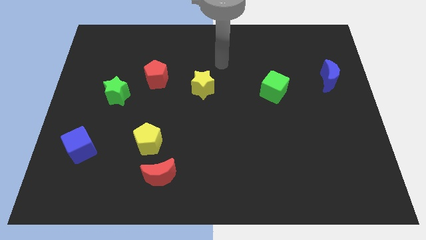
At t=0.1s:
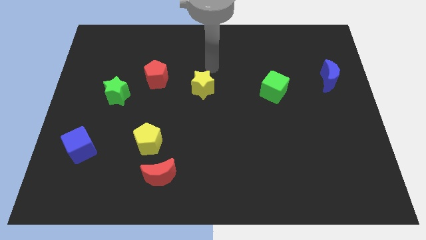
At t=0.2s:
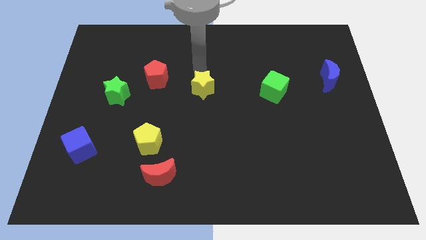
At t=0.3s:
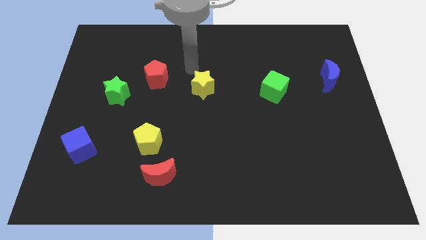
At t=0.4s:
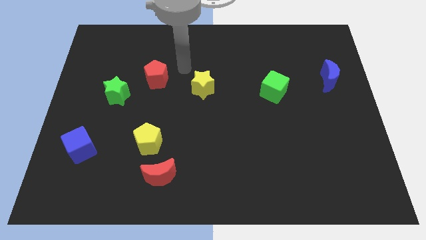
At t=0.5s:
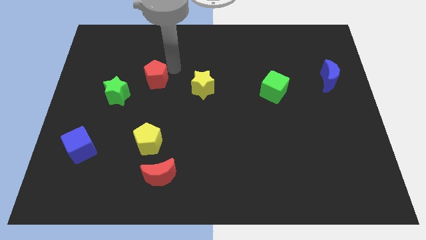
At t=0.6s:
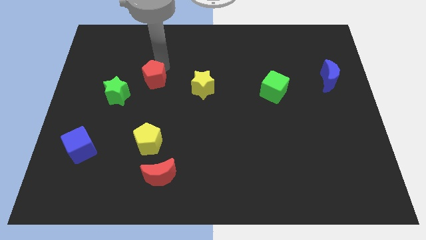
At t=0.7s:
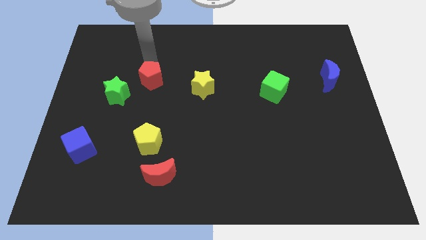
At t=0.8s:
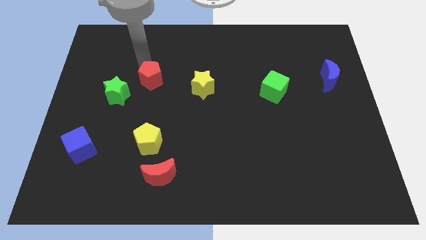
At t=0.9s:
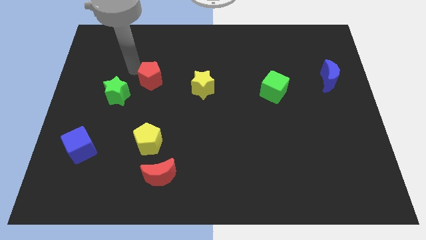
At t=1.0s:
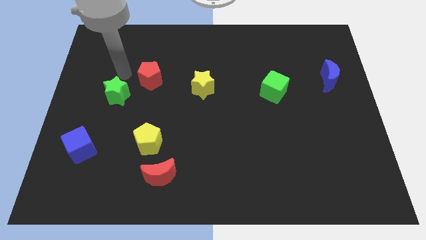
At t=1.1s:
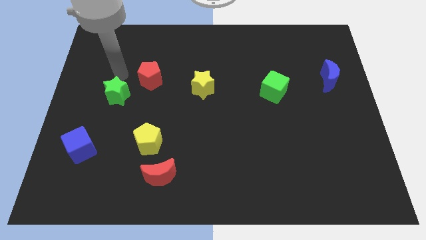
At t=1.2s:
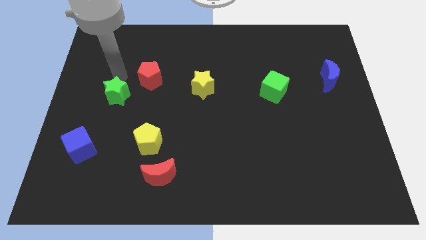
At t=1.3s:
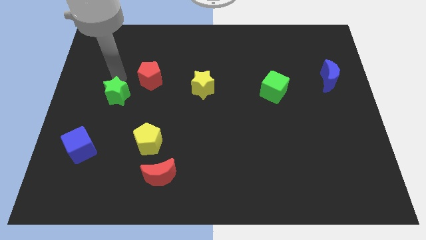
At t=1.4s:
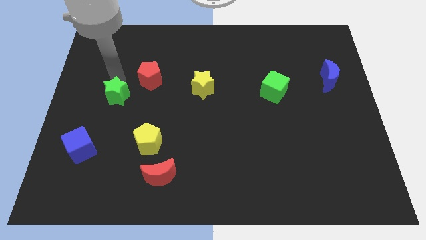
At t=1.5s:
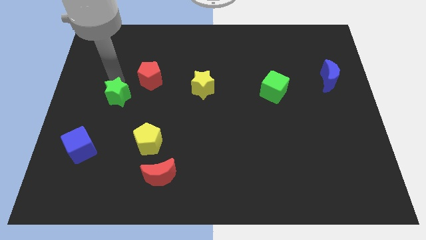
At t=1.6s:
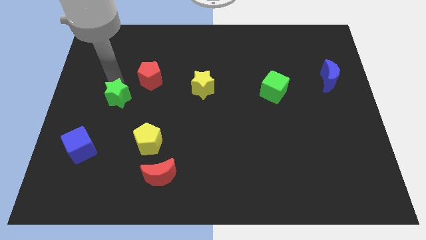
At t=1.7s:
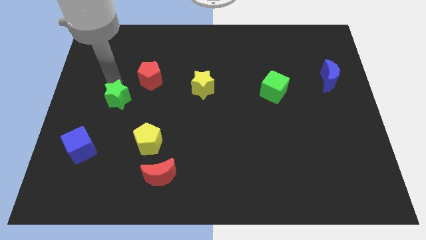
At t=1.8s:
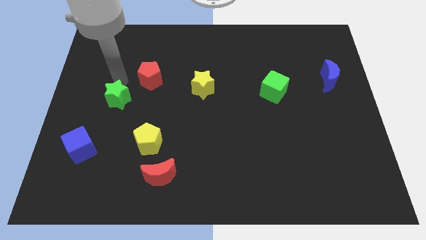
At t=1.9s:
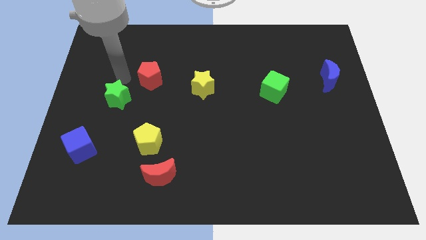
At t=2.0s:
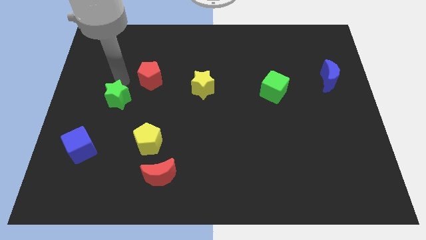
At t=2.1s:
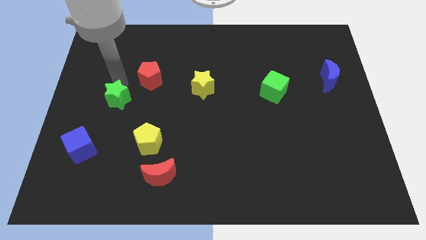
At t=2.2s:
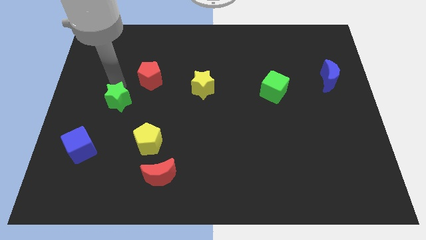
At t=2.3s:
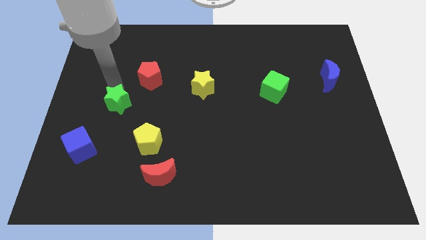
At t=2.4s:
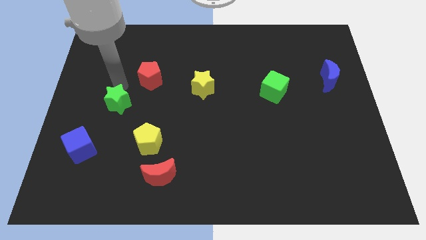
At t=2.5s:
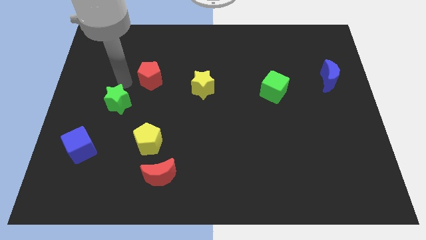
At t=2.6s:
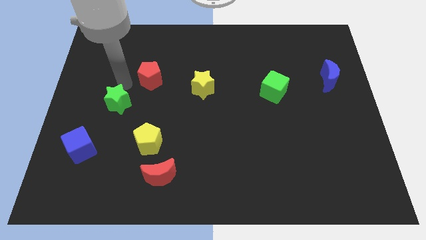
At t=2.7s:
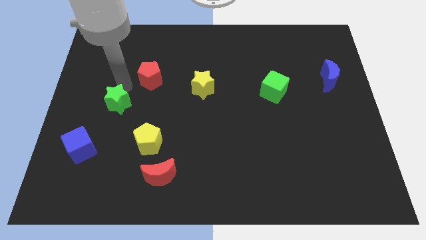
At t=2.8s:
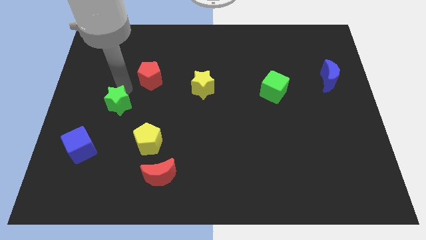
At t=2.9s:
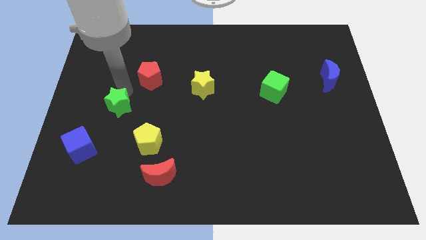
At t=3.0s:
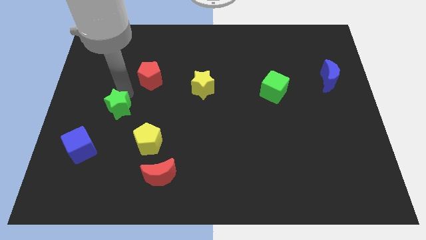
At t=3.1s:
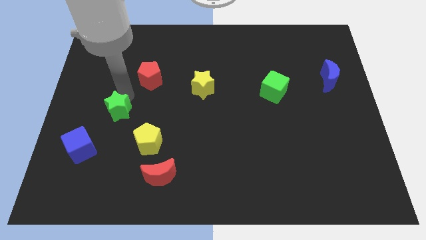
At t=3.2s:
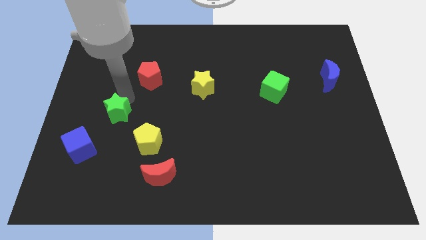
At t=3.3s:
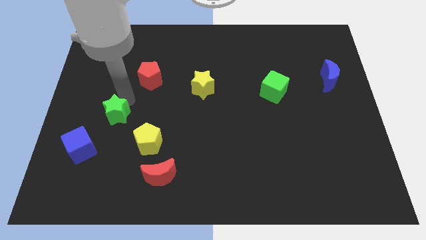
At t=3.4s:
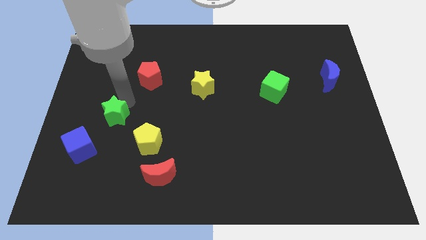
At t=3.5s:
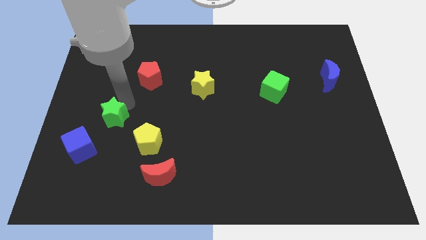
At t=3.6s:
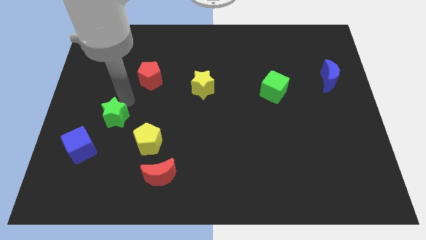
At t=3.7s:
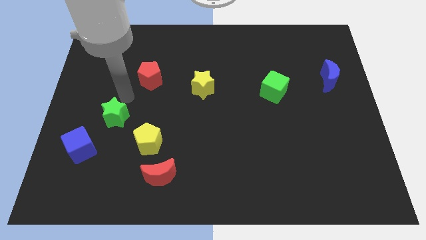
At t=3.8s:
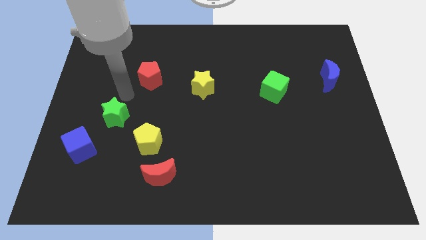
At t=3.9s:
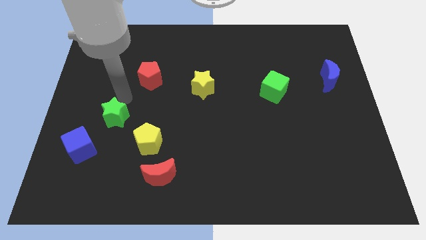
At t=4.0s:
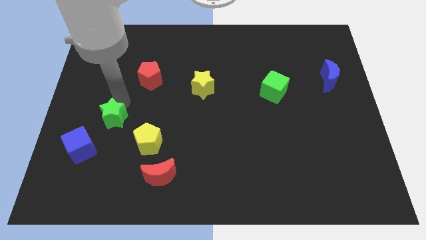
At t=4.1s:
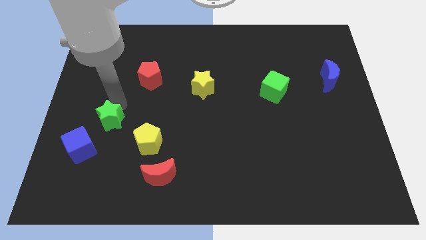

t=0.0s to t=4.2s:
push the green star a little down

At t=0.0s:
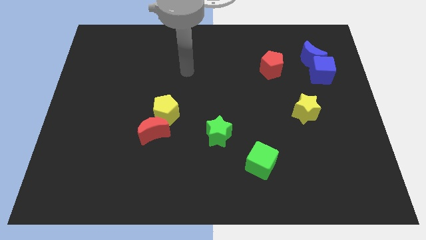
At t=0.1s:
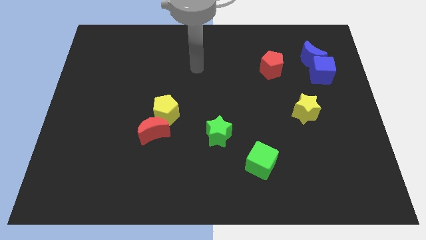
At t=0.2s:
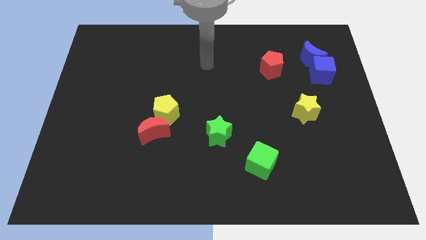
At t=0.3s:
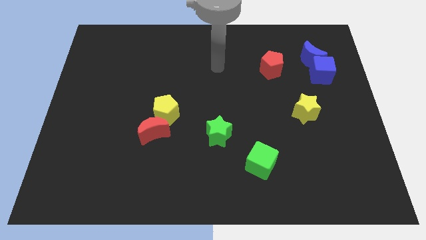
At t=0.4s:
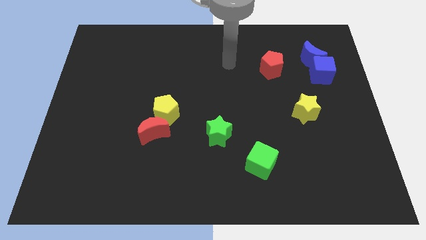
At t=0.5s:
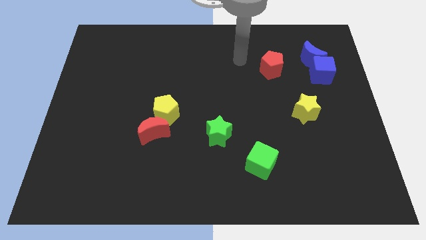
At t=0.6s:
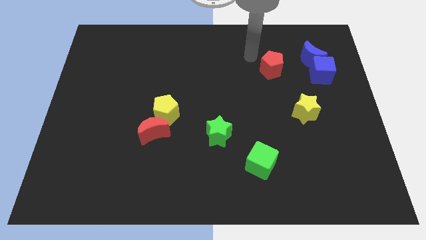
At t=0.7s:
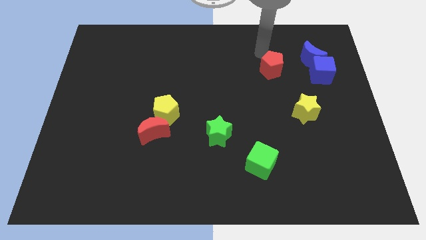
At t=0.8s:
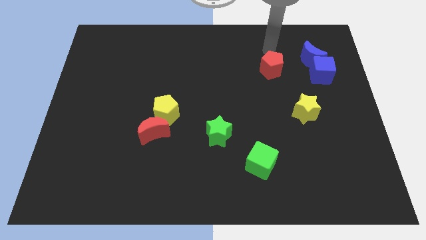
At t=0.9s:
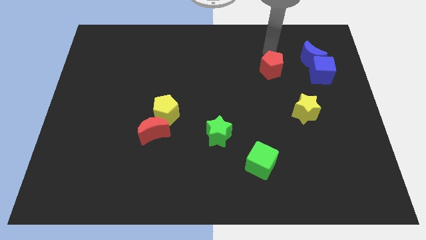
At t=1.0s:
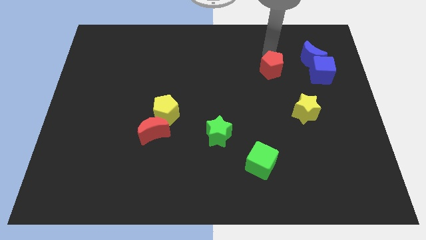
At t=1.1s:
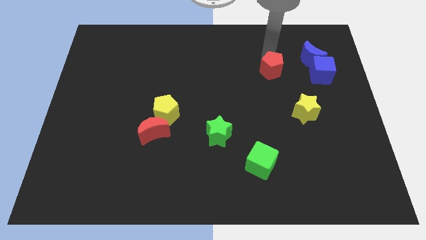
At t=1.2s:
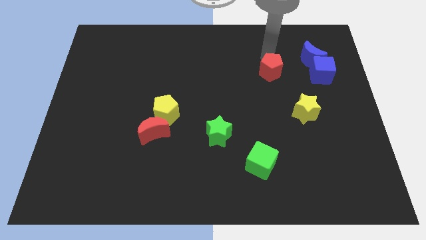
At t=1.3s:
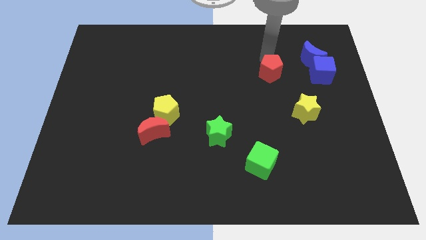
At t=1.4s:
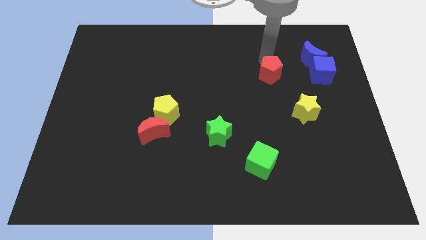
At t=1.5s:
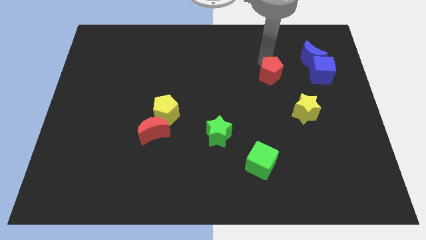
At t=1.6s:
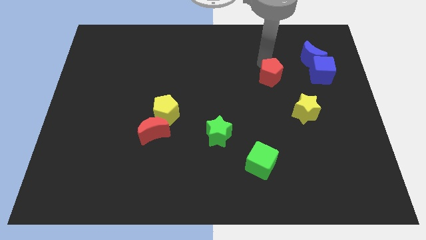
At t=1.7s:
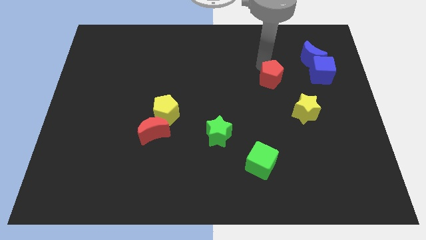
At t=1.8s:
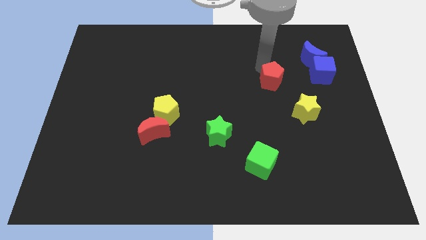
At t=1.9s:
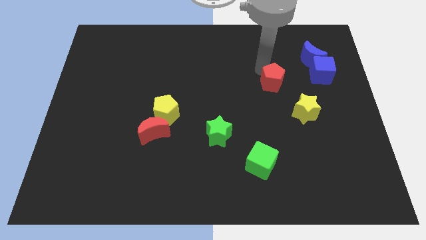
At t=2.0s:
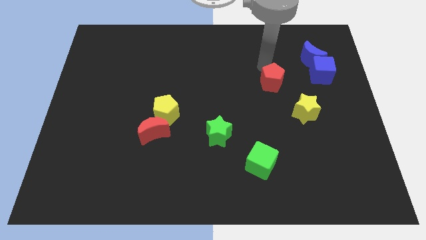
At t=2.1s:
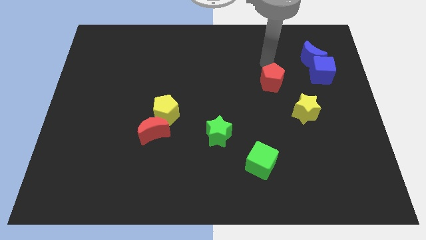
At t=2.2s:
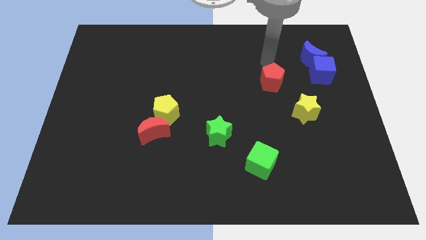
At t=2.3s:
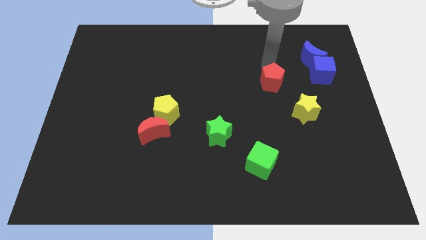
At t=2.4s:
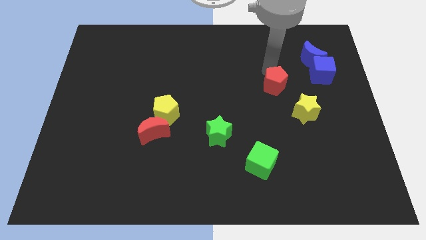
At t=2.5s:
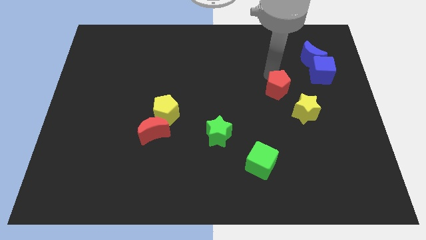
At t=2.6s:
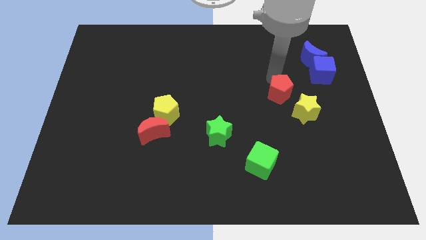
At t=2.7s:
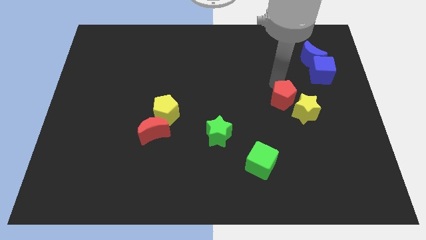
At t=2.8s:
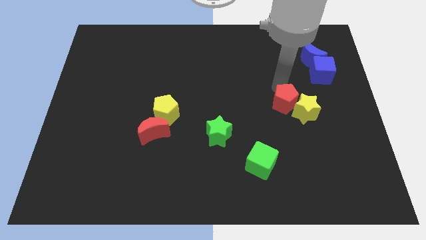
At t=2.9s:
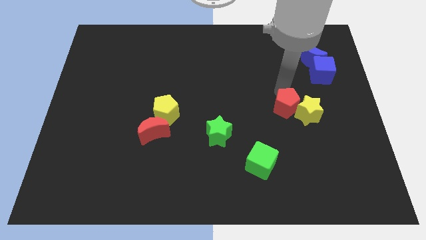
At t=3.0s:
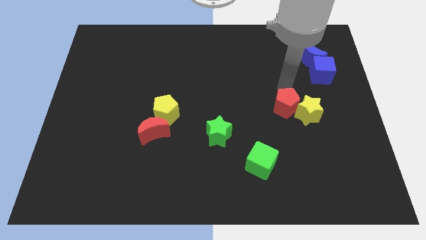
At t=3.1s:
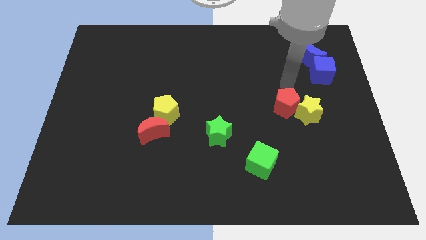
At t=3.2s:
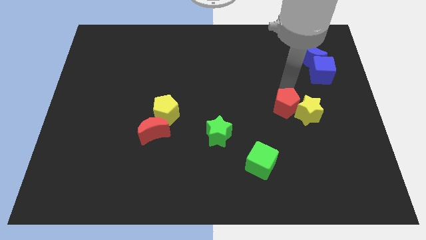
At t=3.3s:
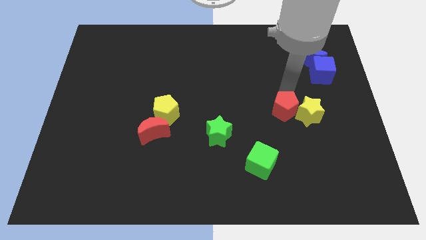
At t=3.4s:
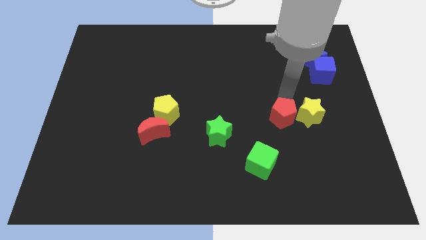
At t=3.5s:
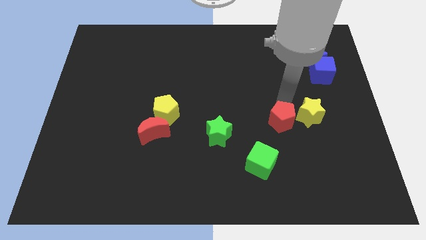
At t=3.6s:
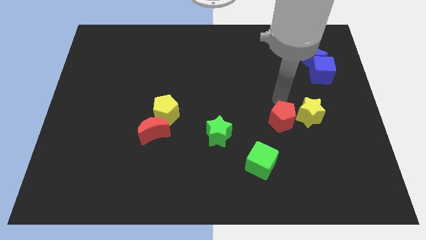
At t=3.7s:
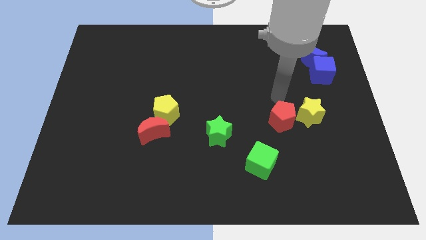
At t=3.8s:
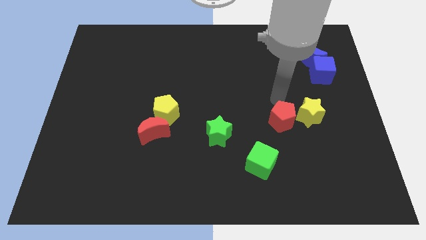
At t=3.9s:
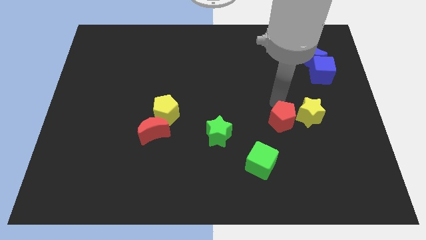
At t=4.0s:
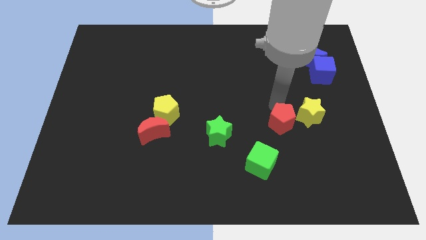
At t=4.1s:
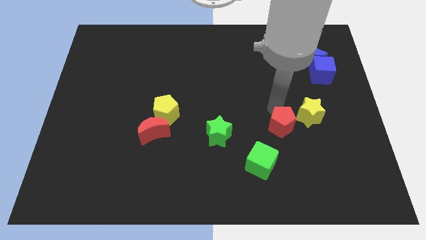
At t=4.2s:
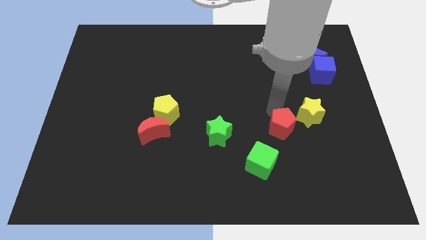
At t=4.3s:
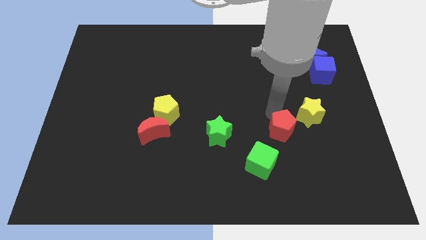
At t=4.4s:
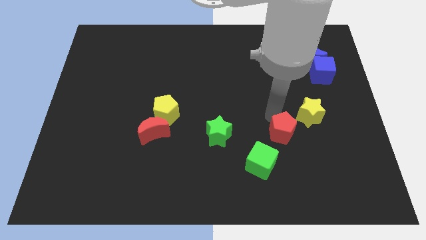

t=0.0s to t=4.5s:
slide the red pentagon down
